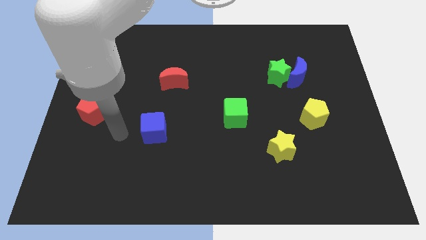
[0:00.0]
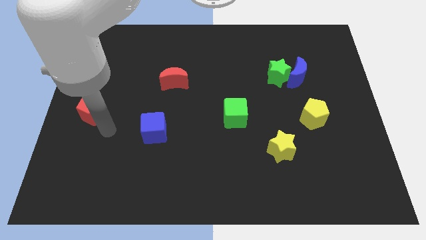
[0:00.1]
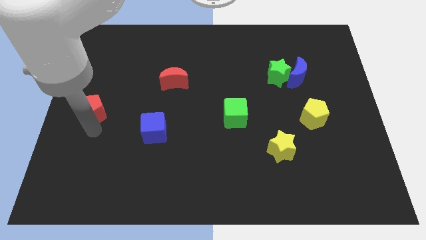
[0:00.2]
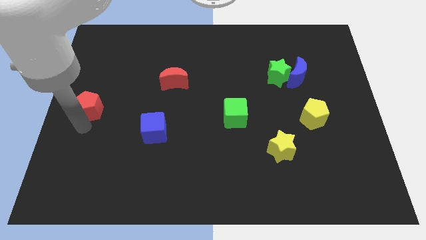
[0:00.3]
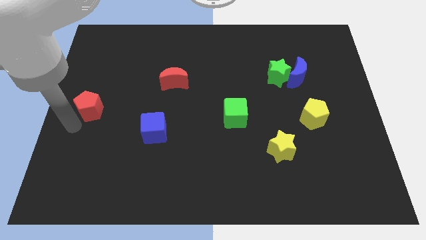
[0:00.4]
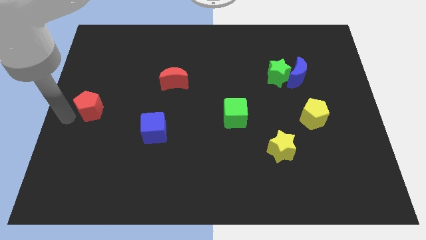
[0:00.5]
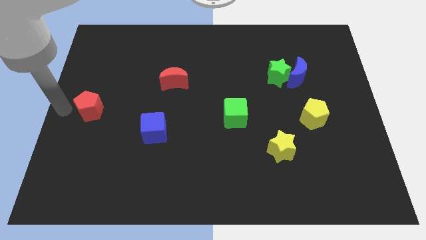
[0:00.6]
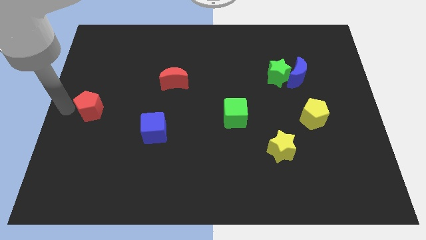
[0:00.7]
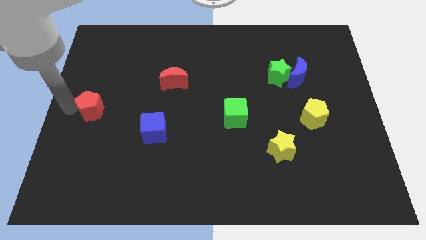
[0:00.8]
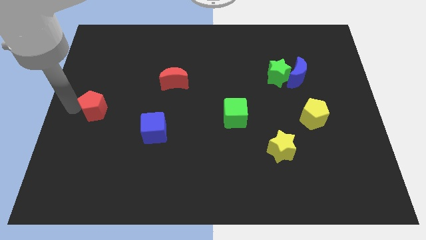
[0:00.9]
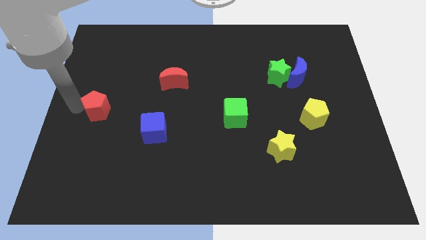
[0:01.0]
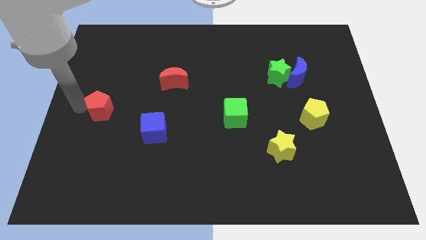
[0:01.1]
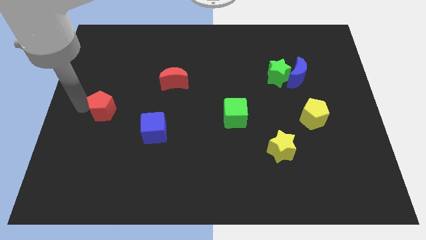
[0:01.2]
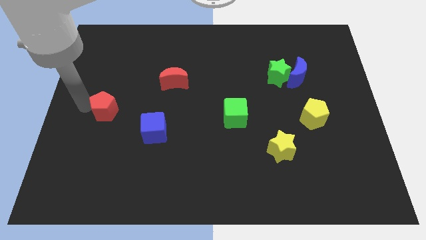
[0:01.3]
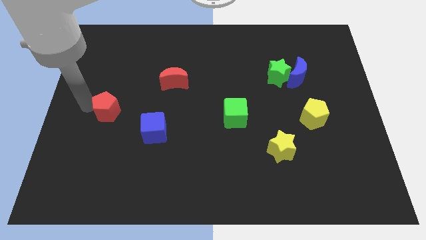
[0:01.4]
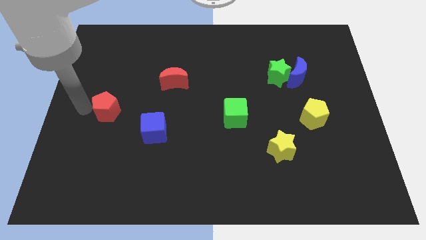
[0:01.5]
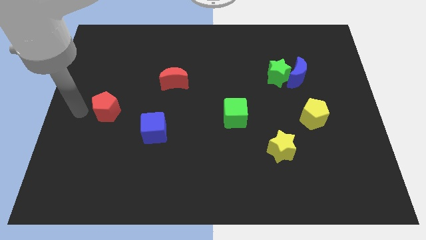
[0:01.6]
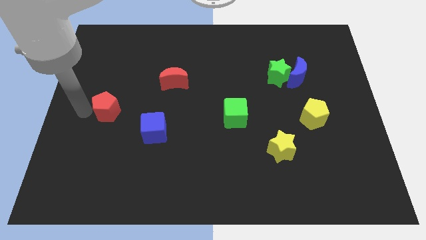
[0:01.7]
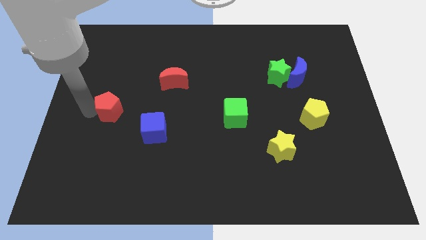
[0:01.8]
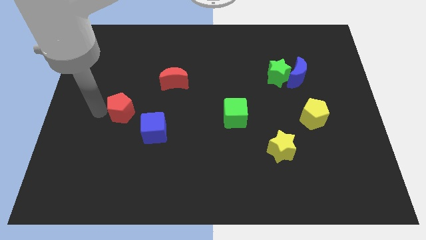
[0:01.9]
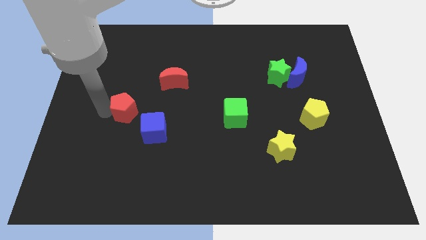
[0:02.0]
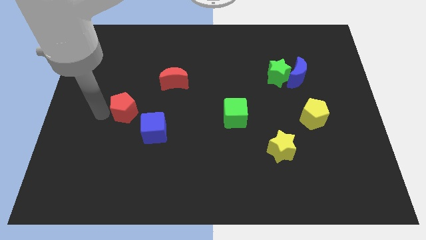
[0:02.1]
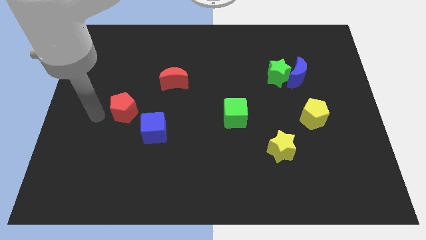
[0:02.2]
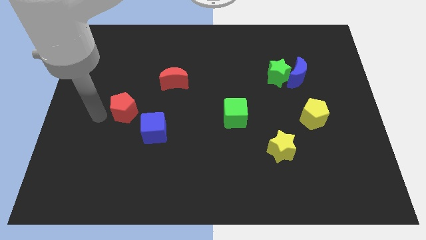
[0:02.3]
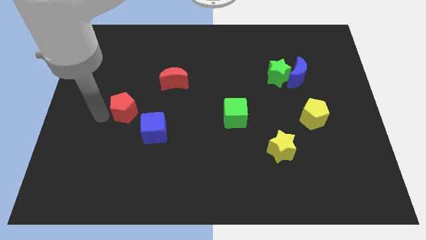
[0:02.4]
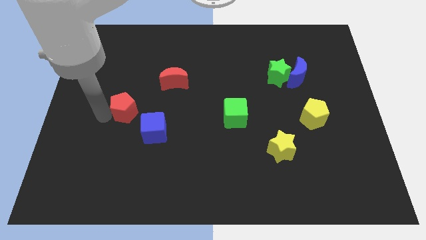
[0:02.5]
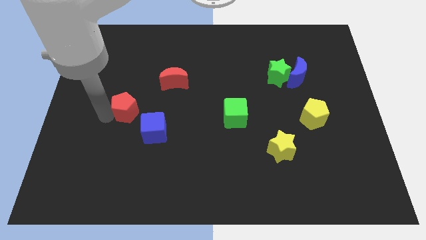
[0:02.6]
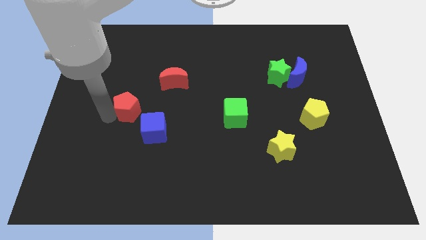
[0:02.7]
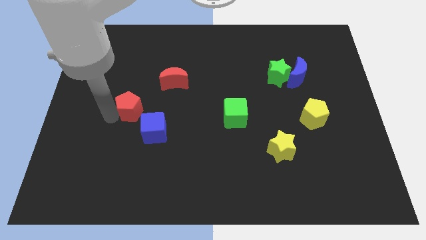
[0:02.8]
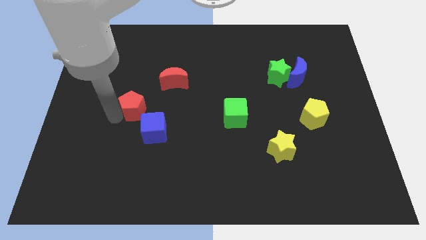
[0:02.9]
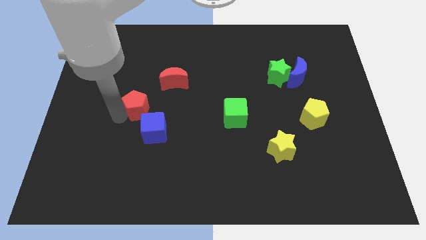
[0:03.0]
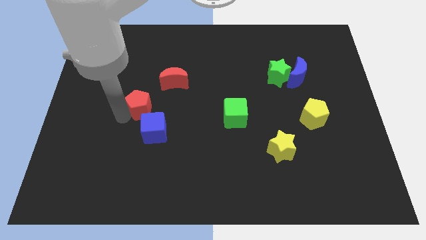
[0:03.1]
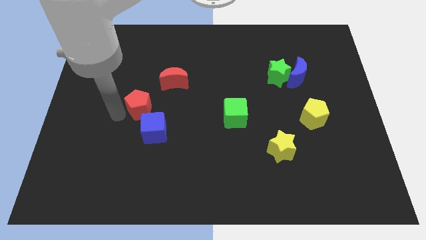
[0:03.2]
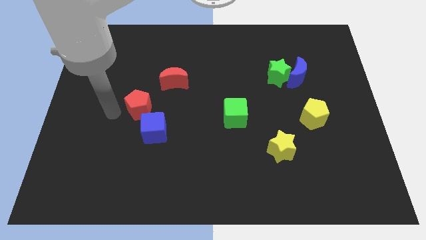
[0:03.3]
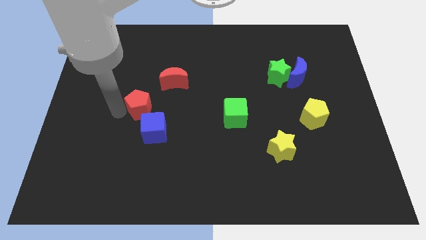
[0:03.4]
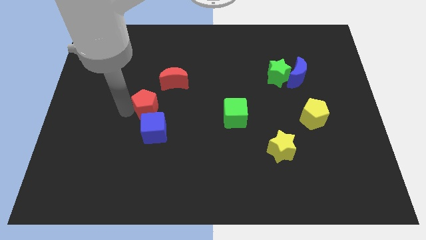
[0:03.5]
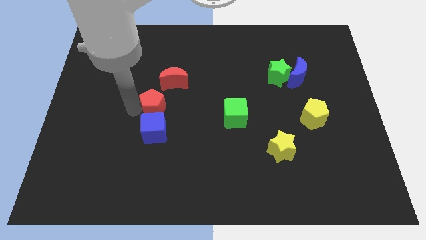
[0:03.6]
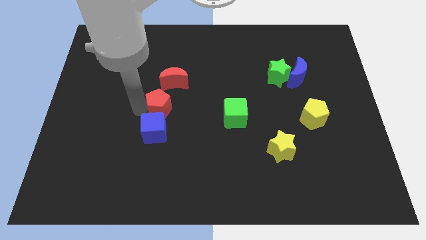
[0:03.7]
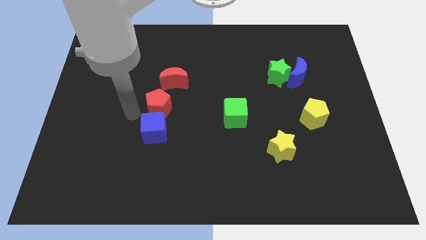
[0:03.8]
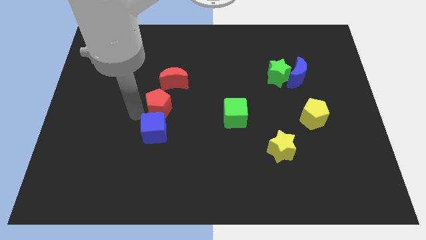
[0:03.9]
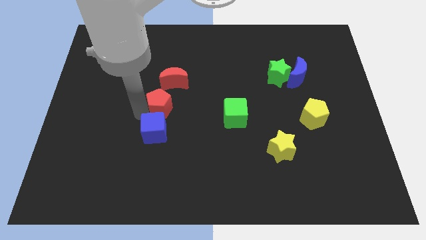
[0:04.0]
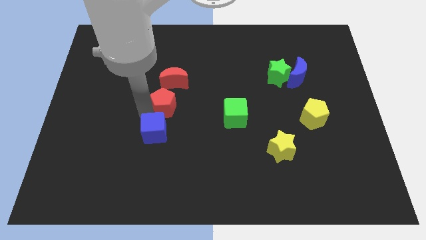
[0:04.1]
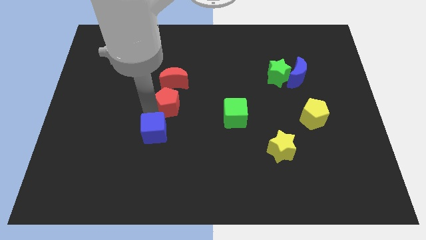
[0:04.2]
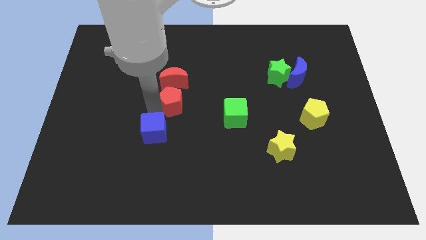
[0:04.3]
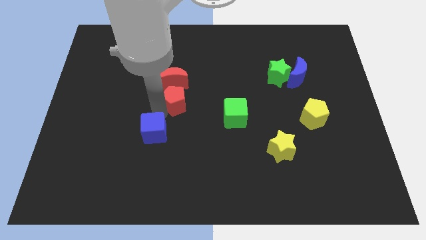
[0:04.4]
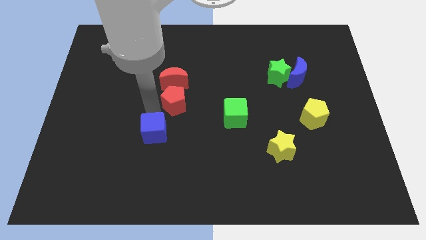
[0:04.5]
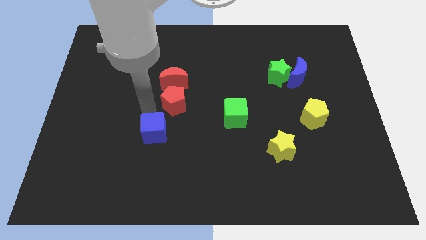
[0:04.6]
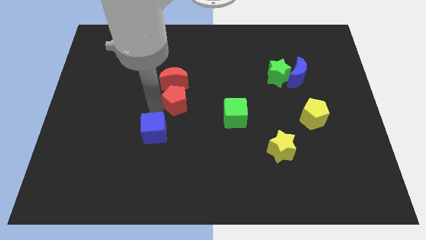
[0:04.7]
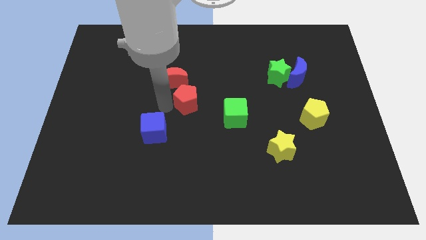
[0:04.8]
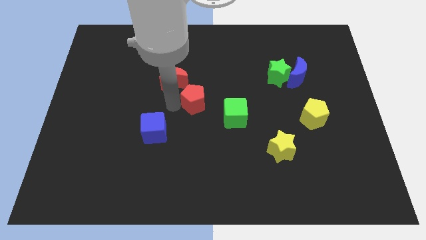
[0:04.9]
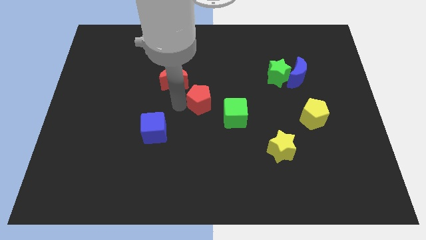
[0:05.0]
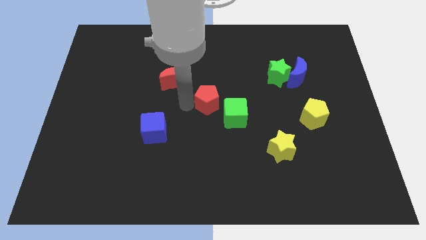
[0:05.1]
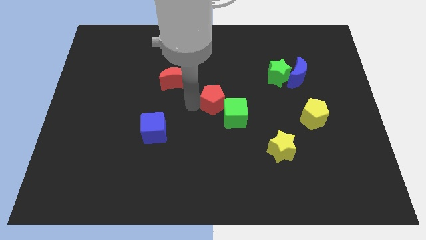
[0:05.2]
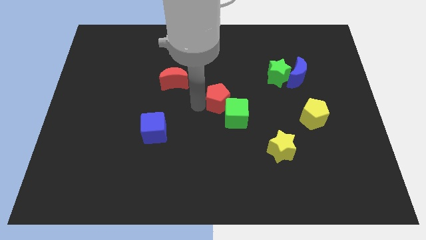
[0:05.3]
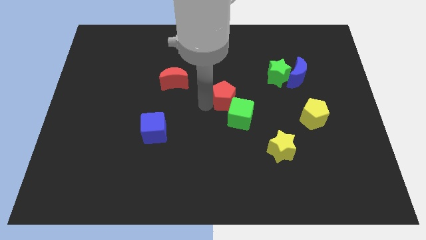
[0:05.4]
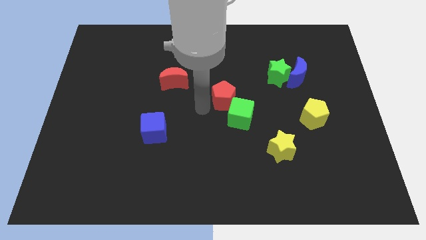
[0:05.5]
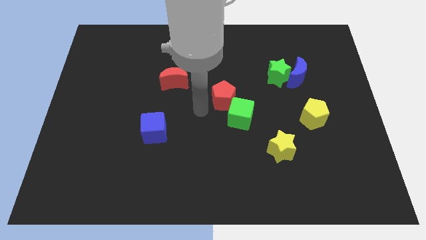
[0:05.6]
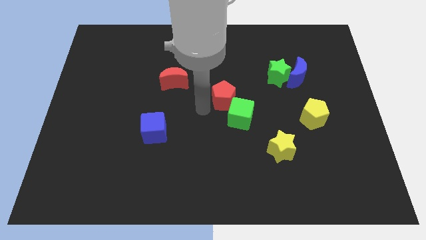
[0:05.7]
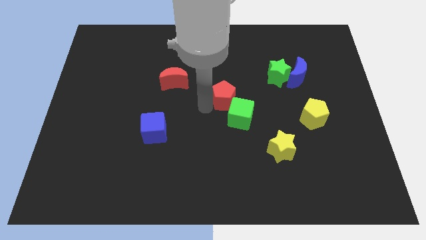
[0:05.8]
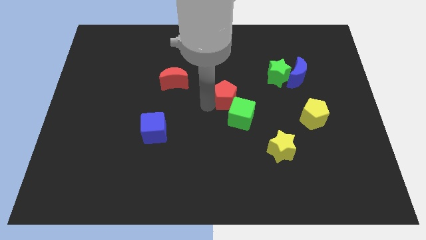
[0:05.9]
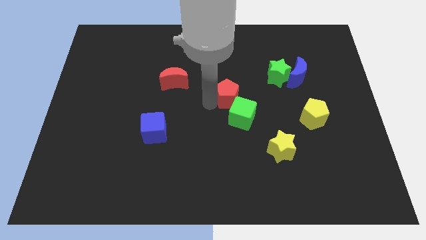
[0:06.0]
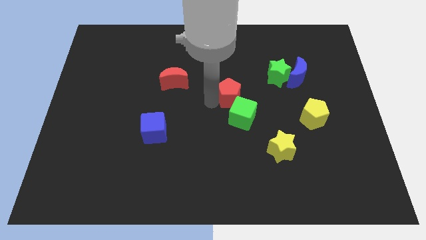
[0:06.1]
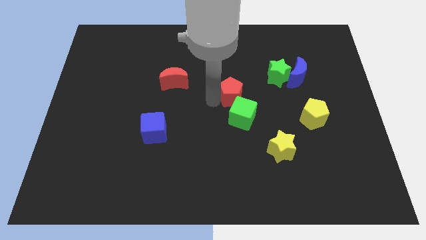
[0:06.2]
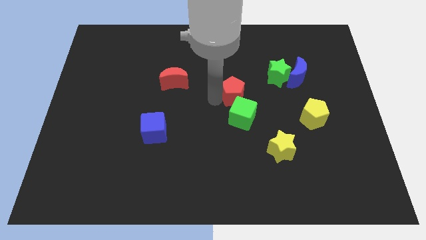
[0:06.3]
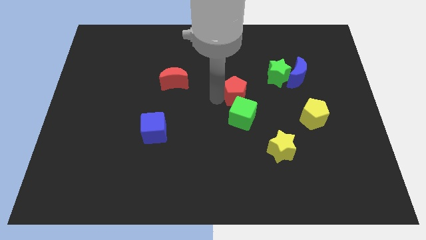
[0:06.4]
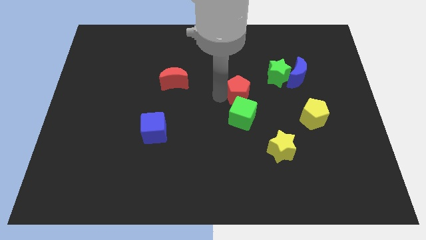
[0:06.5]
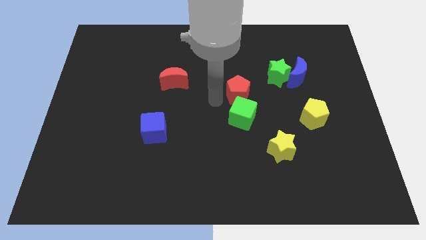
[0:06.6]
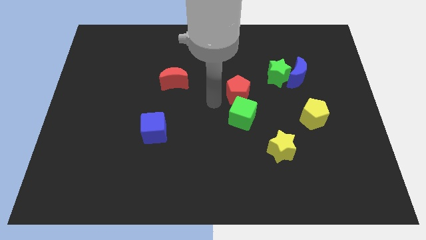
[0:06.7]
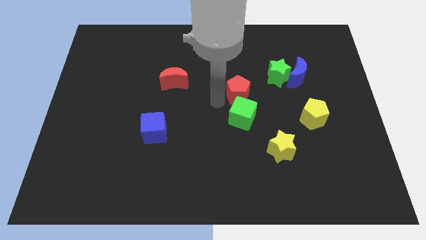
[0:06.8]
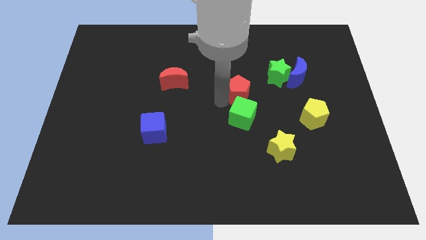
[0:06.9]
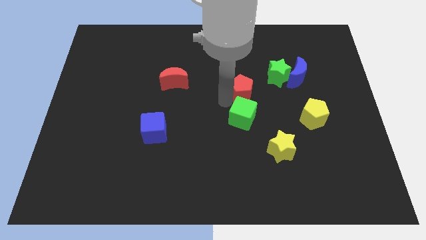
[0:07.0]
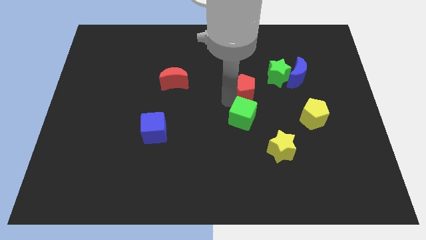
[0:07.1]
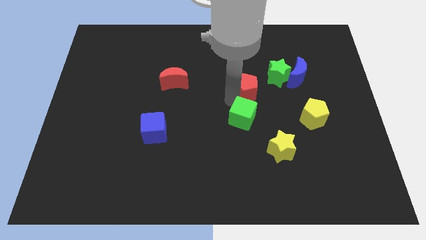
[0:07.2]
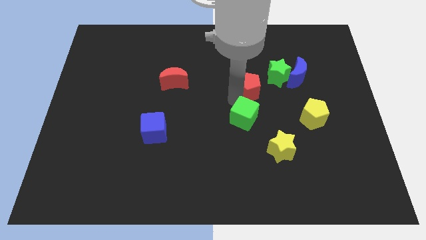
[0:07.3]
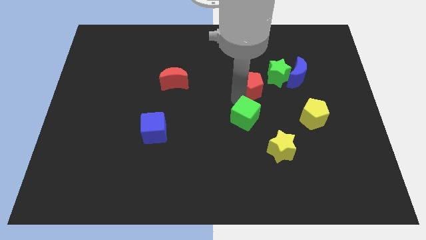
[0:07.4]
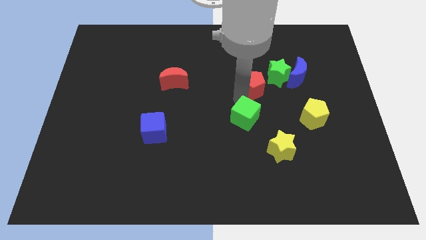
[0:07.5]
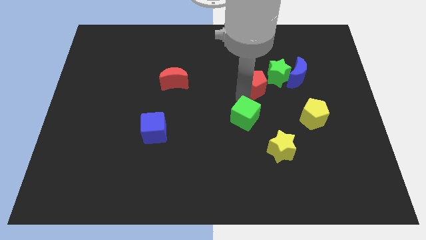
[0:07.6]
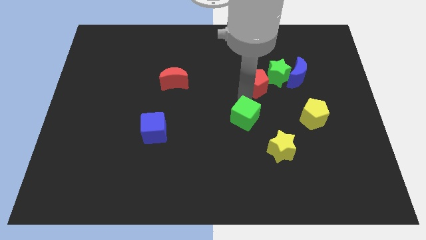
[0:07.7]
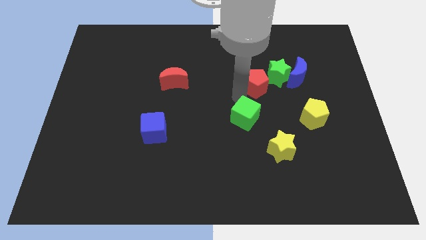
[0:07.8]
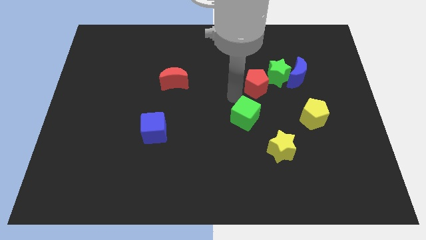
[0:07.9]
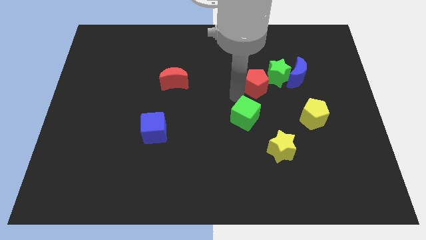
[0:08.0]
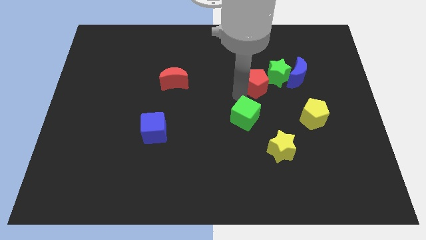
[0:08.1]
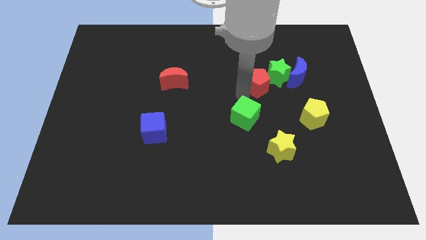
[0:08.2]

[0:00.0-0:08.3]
push the red pentagon to the green star
